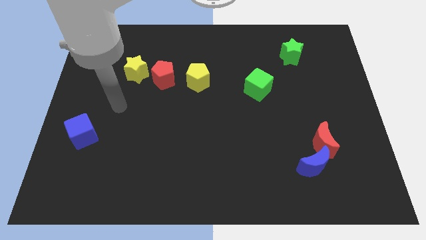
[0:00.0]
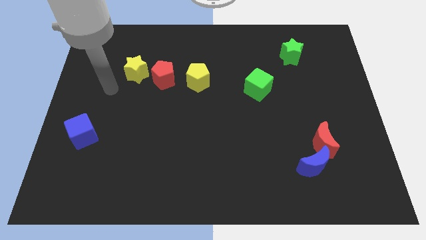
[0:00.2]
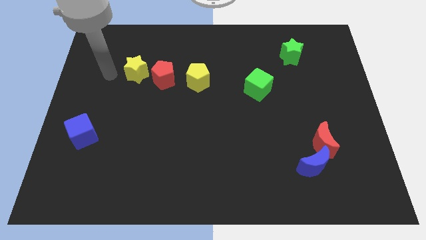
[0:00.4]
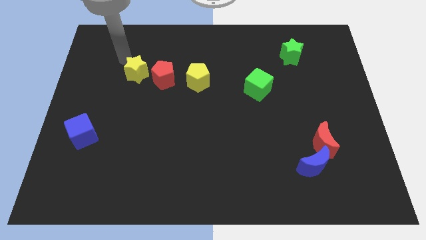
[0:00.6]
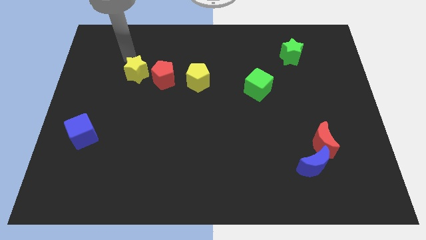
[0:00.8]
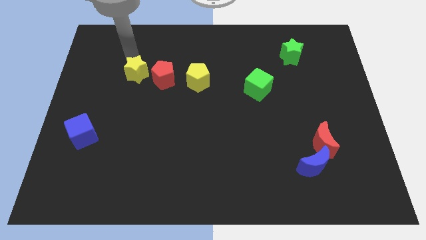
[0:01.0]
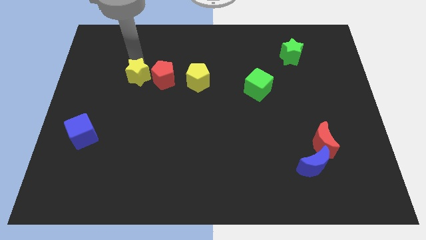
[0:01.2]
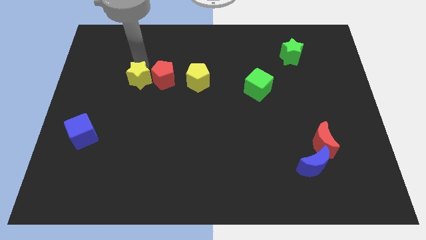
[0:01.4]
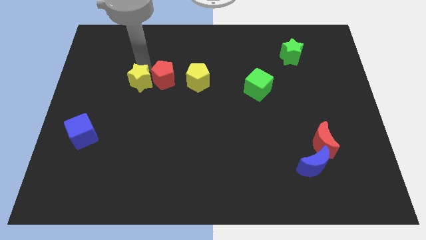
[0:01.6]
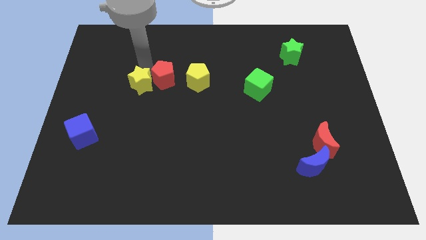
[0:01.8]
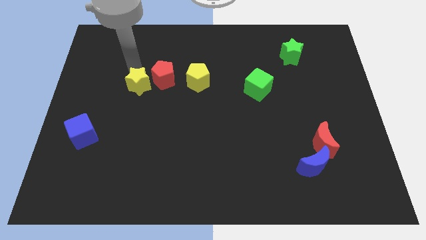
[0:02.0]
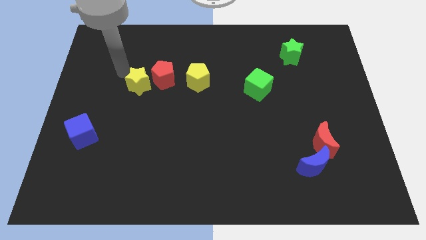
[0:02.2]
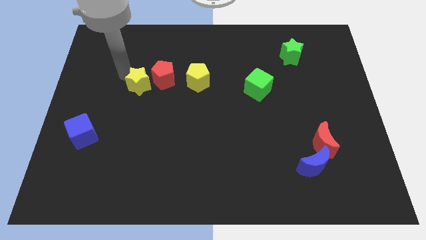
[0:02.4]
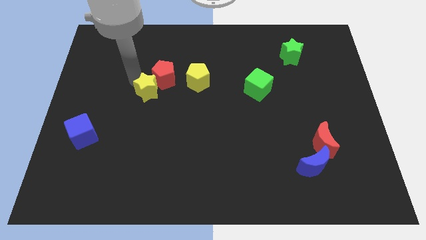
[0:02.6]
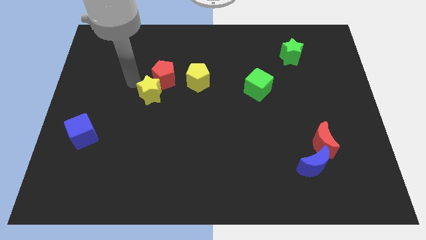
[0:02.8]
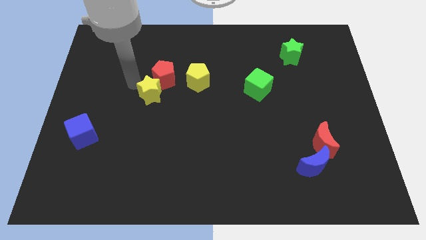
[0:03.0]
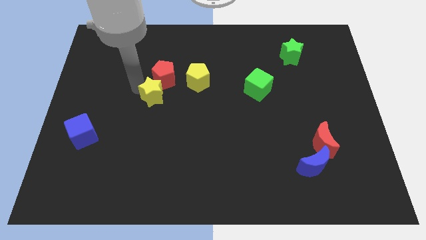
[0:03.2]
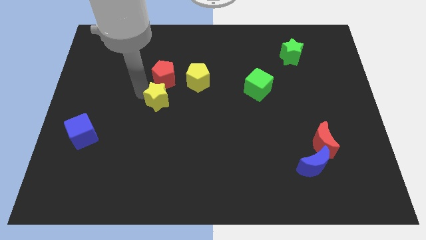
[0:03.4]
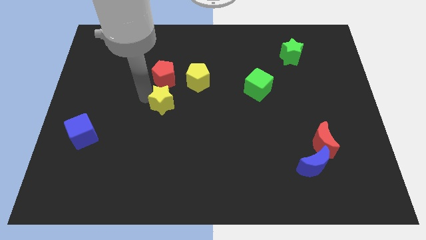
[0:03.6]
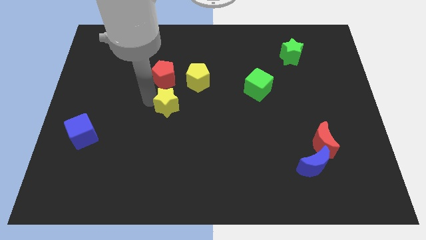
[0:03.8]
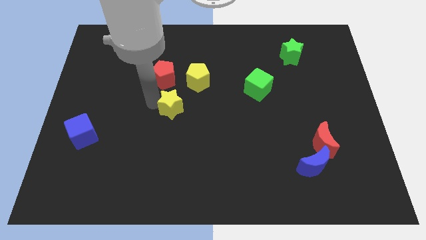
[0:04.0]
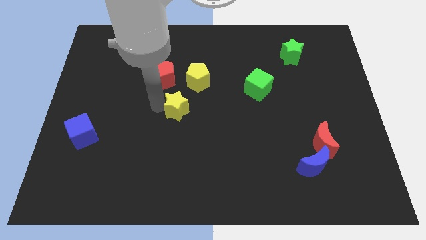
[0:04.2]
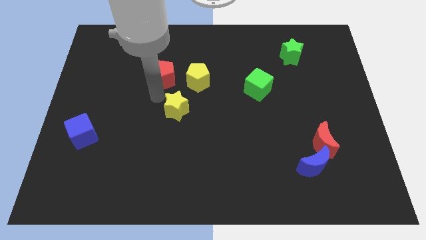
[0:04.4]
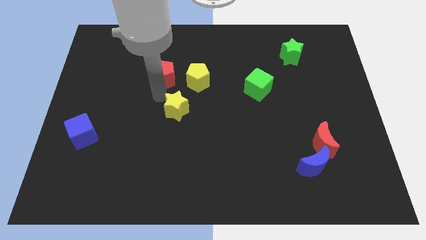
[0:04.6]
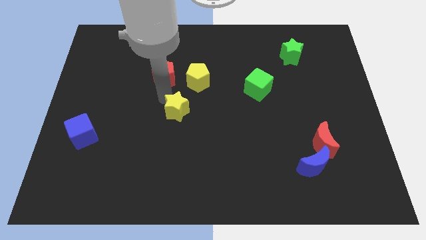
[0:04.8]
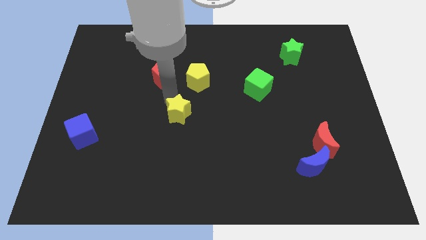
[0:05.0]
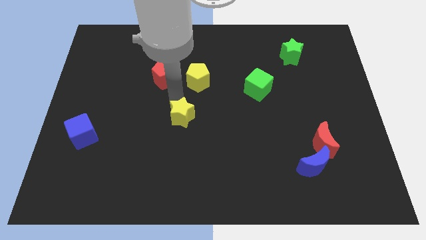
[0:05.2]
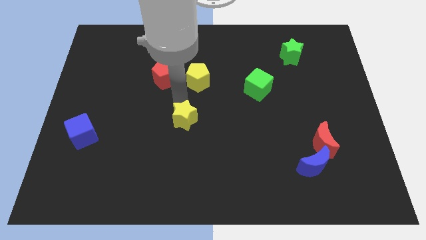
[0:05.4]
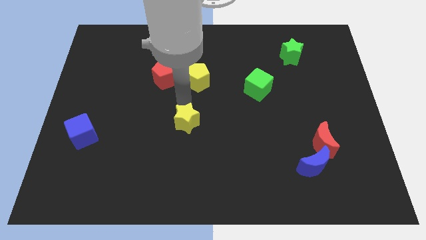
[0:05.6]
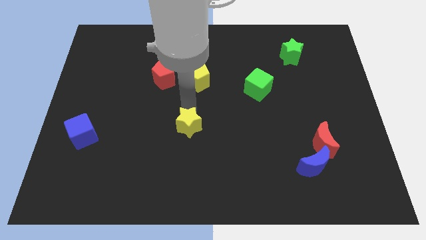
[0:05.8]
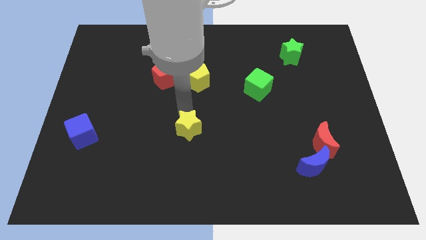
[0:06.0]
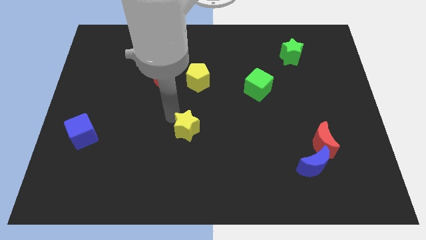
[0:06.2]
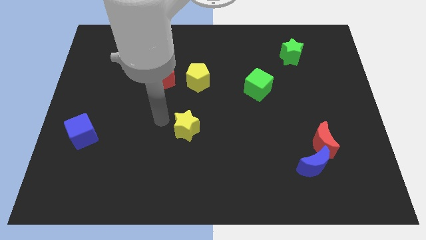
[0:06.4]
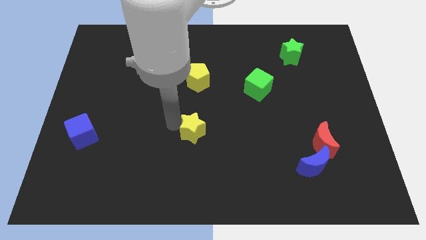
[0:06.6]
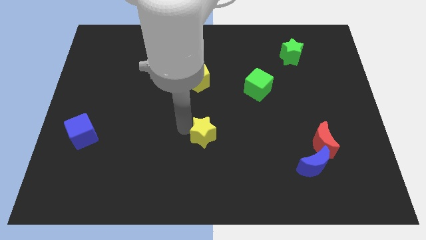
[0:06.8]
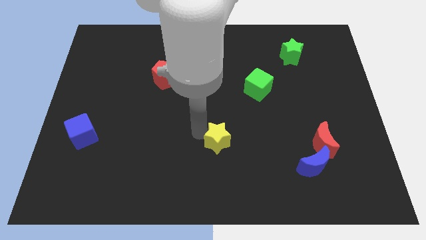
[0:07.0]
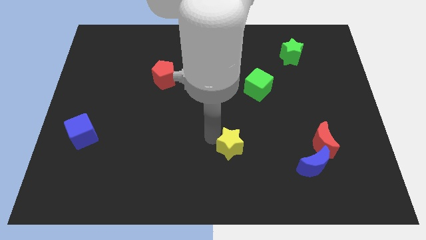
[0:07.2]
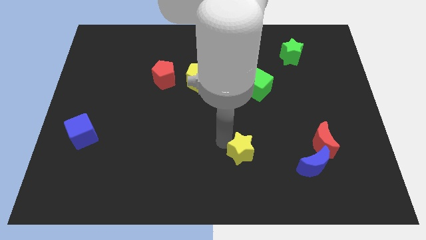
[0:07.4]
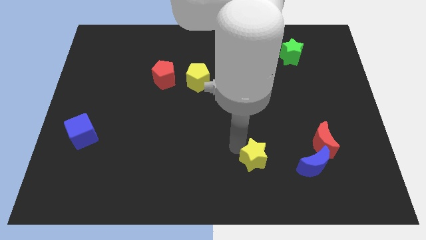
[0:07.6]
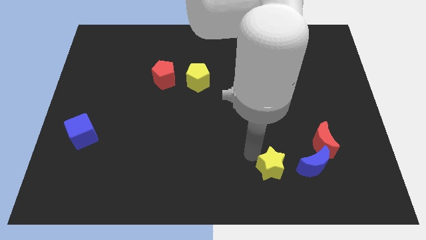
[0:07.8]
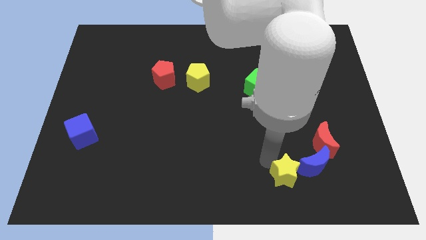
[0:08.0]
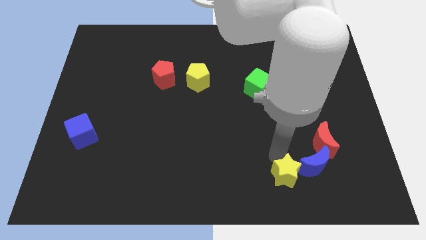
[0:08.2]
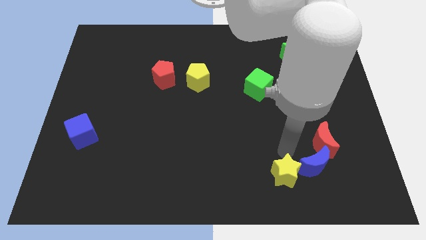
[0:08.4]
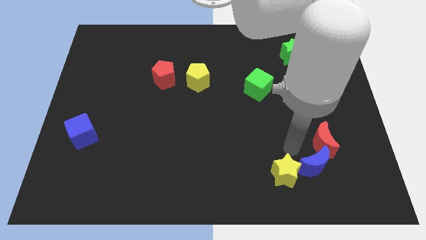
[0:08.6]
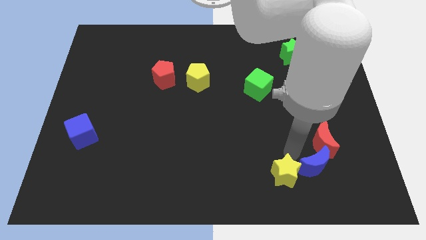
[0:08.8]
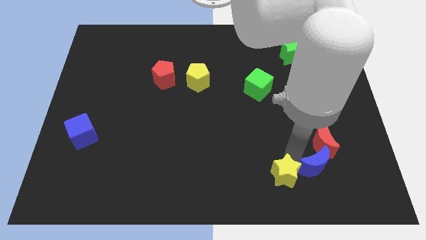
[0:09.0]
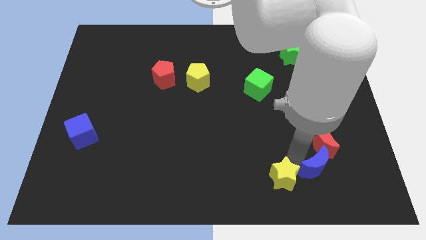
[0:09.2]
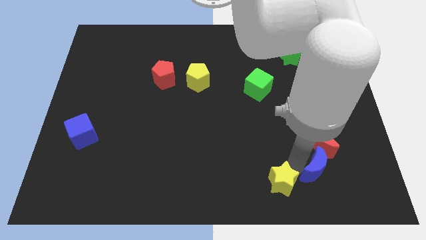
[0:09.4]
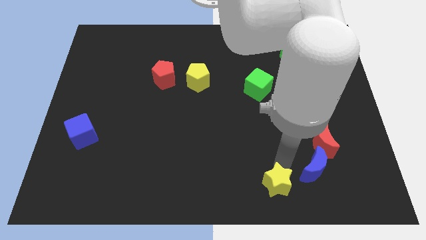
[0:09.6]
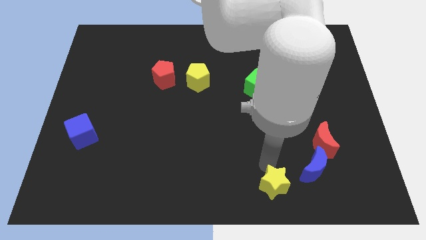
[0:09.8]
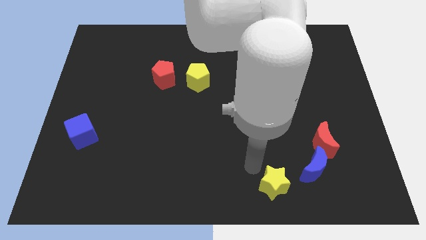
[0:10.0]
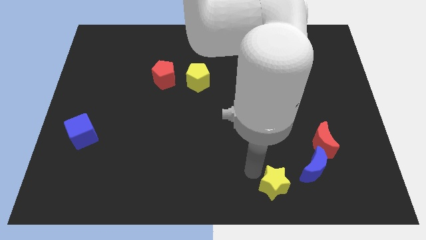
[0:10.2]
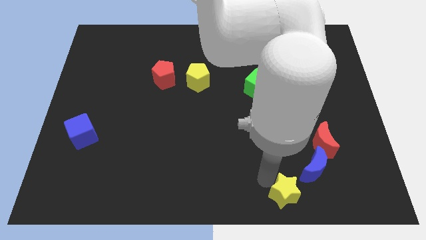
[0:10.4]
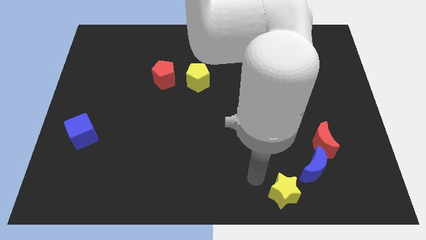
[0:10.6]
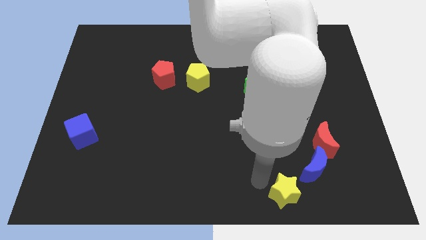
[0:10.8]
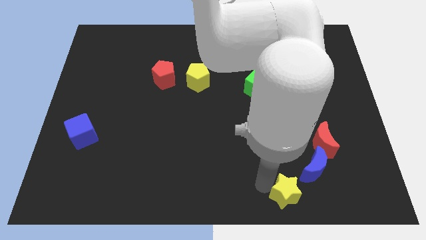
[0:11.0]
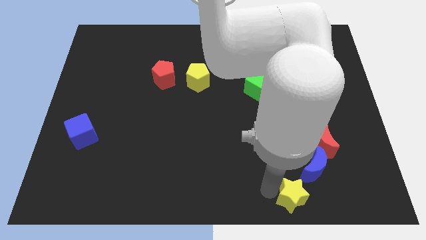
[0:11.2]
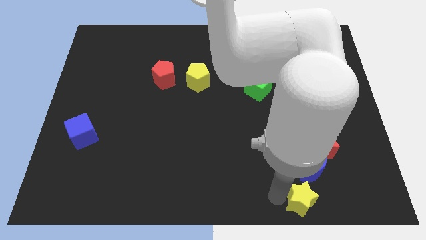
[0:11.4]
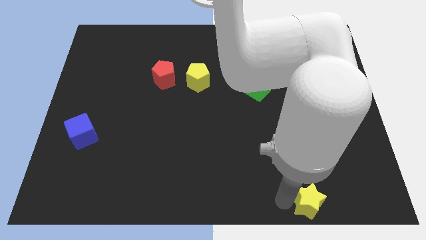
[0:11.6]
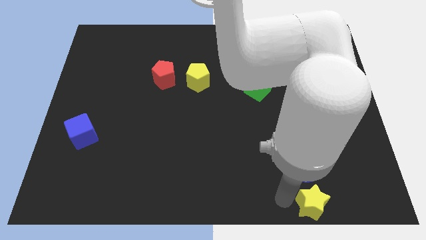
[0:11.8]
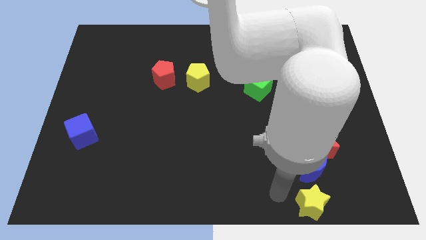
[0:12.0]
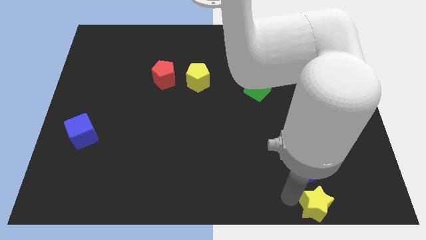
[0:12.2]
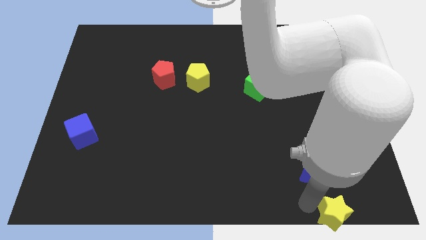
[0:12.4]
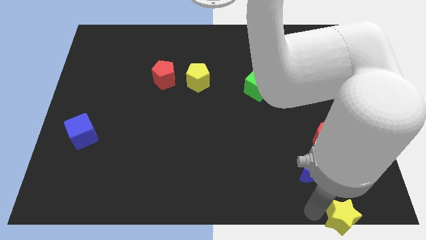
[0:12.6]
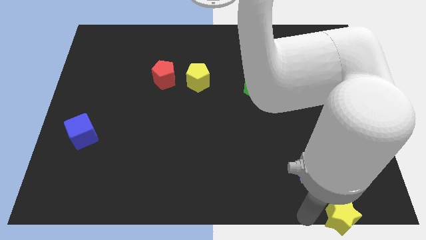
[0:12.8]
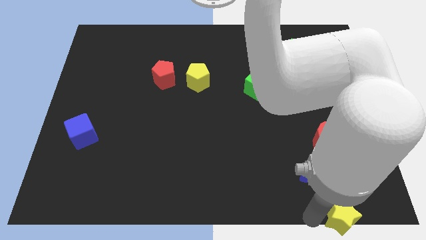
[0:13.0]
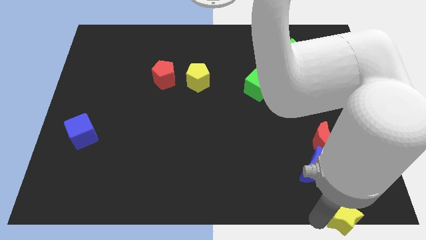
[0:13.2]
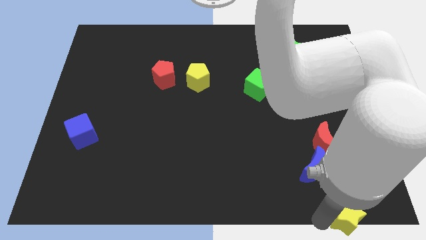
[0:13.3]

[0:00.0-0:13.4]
move the yellow star to the bottom right of the board
